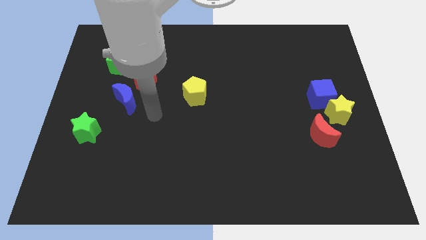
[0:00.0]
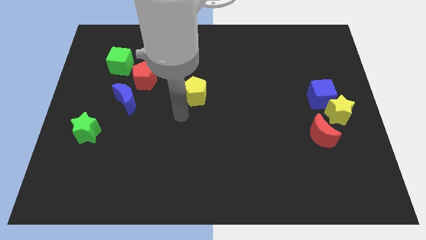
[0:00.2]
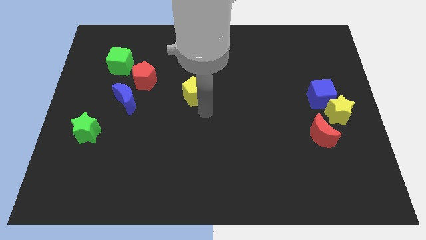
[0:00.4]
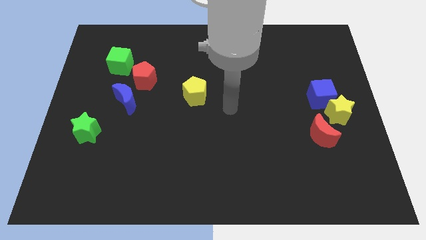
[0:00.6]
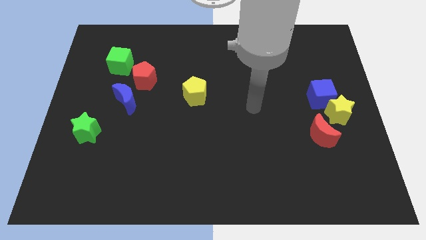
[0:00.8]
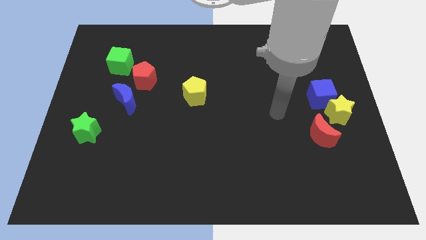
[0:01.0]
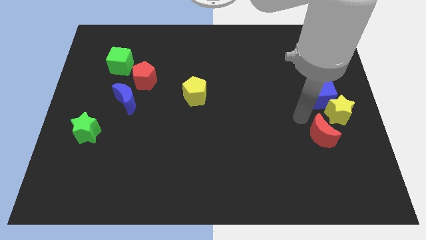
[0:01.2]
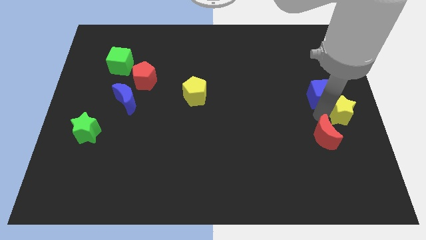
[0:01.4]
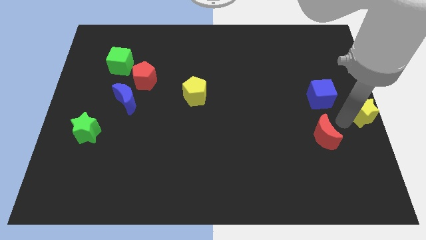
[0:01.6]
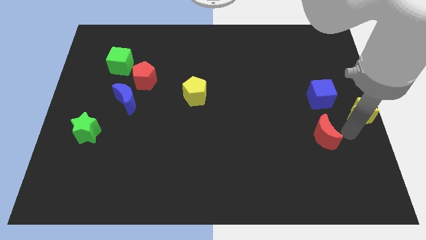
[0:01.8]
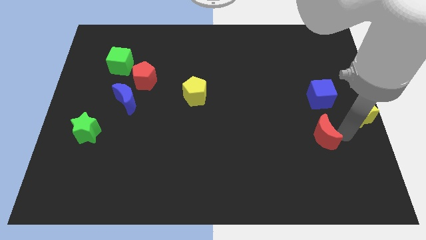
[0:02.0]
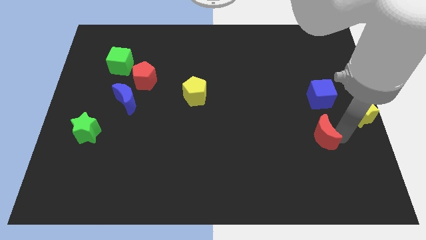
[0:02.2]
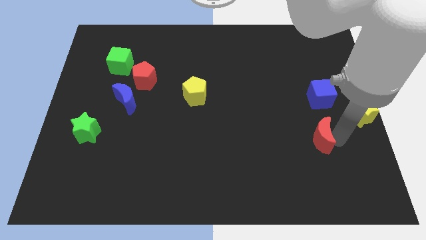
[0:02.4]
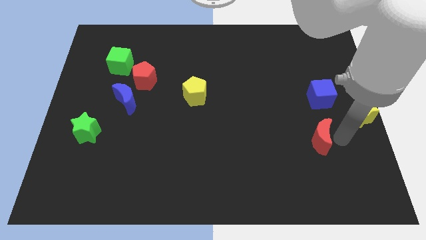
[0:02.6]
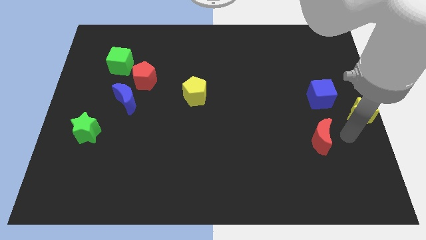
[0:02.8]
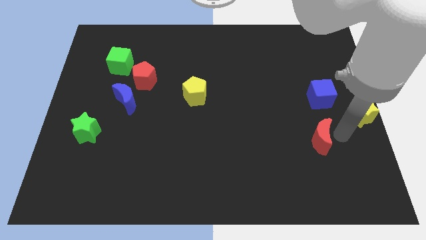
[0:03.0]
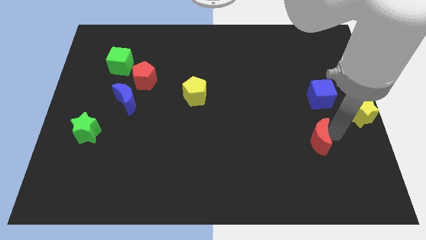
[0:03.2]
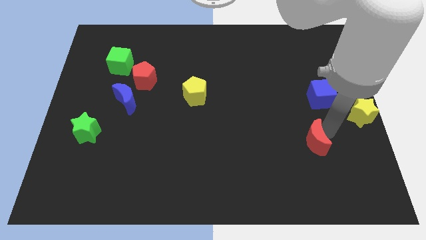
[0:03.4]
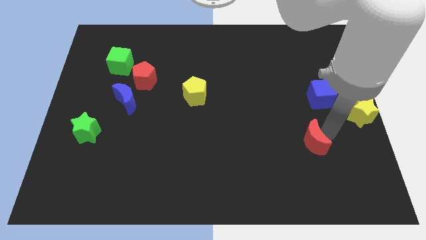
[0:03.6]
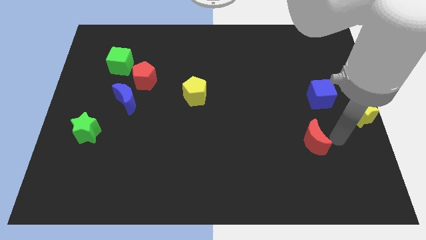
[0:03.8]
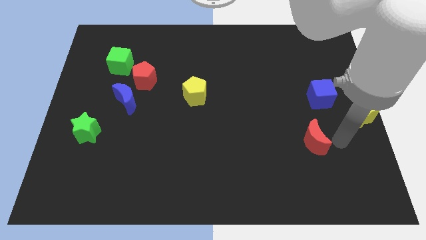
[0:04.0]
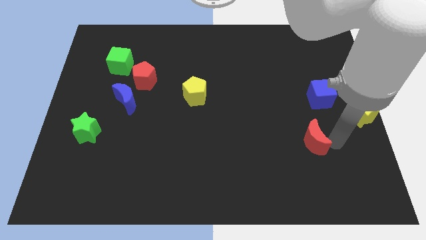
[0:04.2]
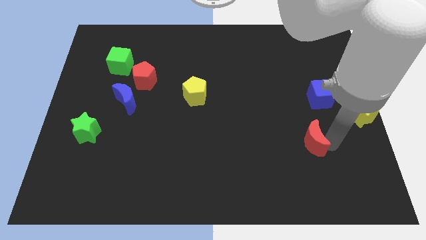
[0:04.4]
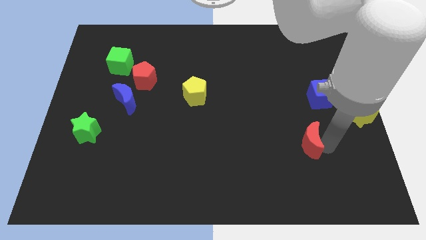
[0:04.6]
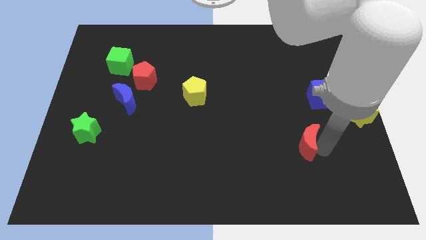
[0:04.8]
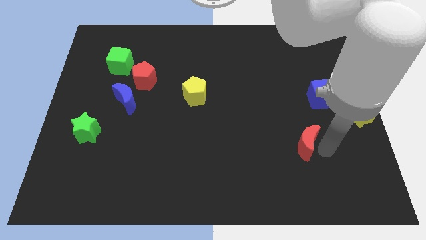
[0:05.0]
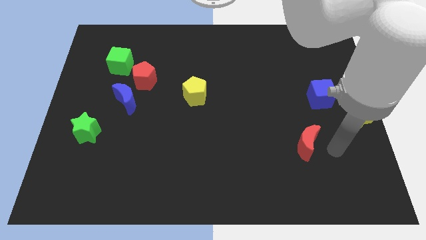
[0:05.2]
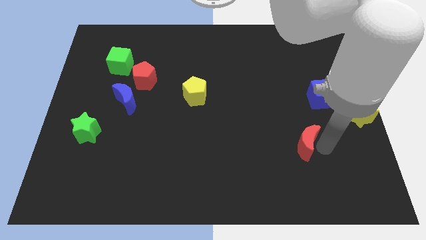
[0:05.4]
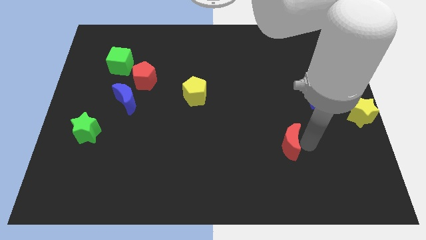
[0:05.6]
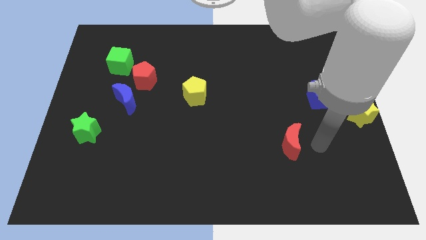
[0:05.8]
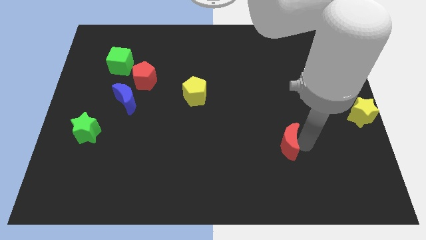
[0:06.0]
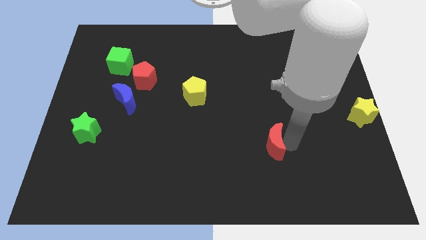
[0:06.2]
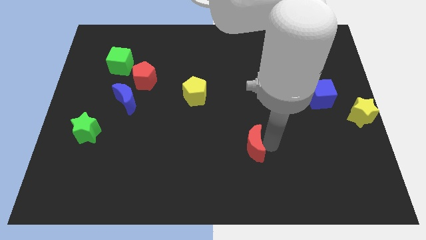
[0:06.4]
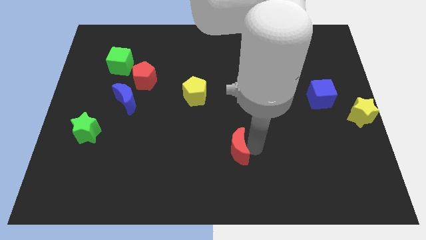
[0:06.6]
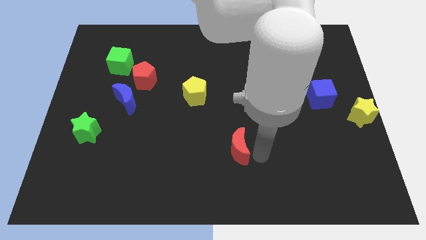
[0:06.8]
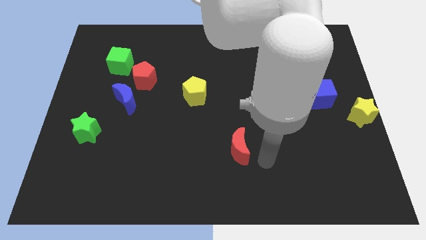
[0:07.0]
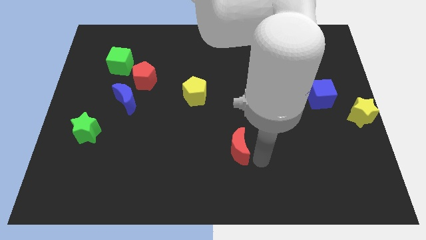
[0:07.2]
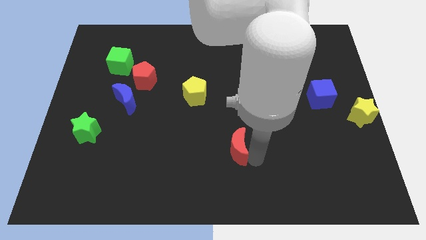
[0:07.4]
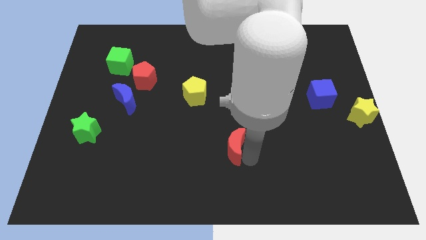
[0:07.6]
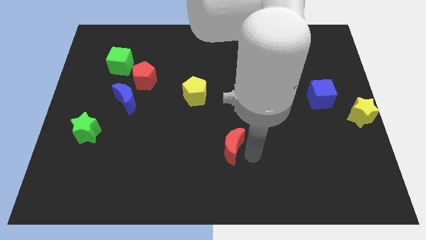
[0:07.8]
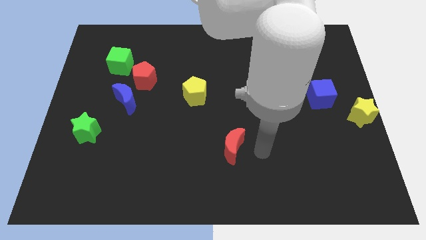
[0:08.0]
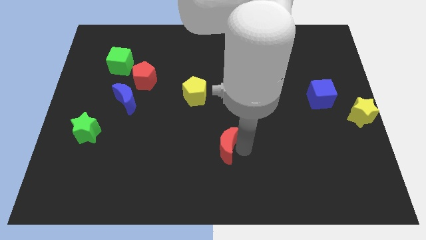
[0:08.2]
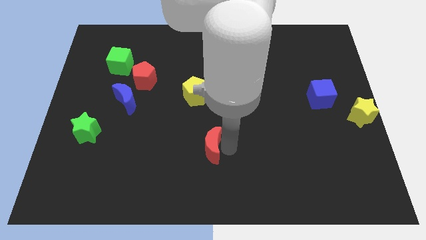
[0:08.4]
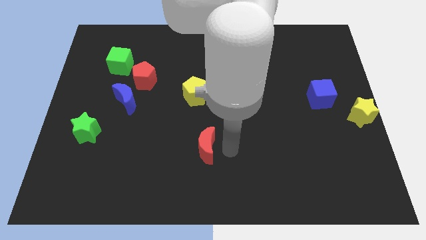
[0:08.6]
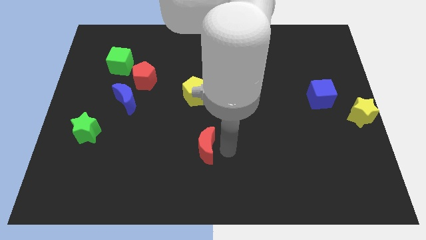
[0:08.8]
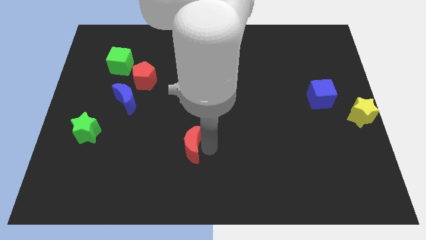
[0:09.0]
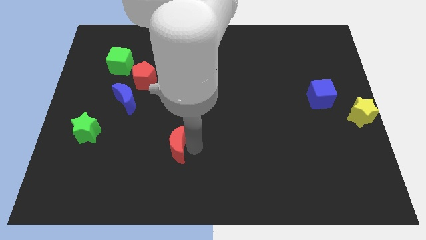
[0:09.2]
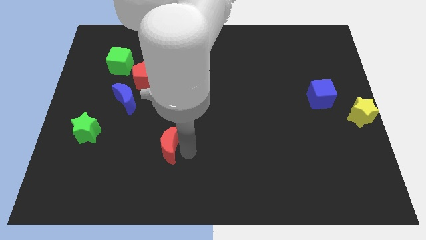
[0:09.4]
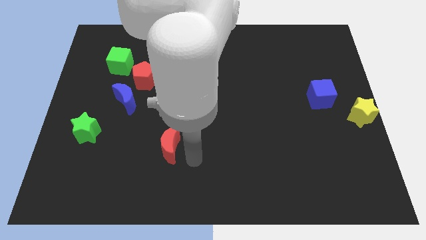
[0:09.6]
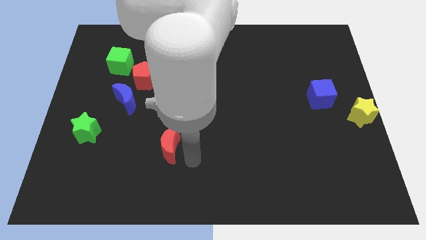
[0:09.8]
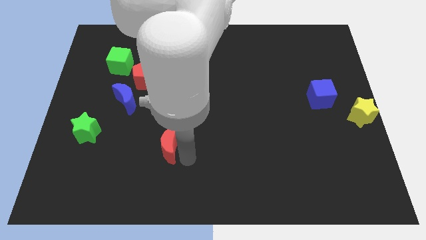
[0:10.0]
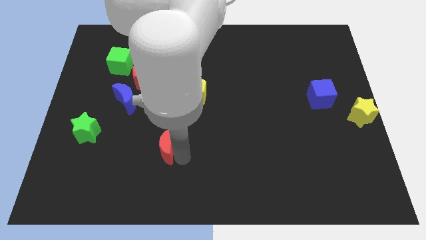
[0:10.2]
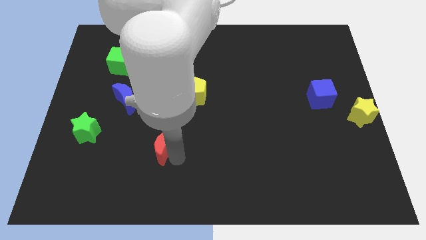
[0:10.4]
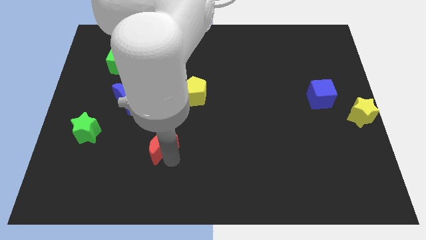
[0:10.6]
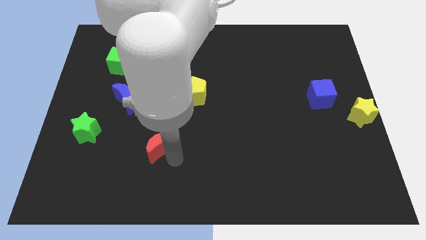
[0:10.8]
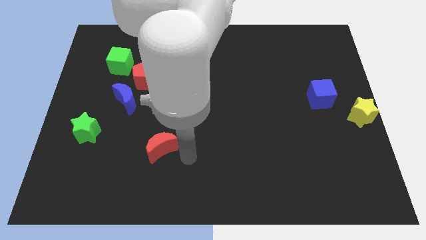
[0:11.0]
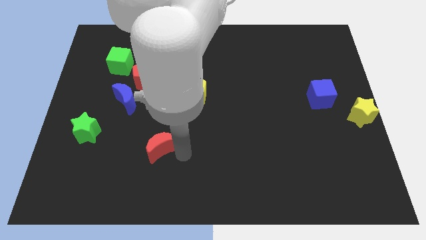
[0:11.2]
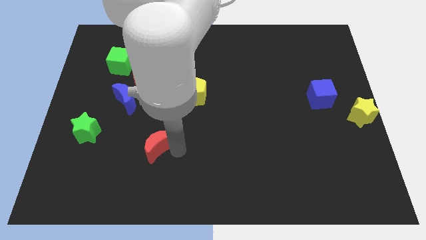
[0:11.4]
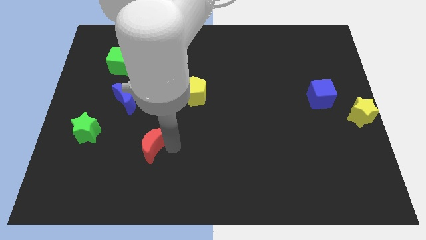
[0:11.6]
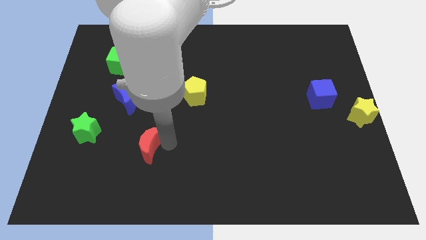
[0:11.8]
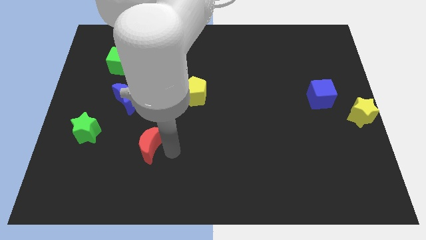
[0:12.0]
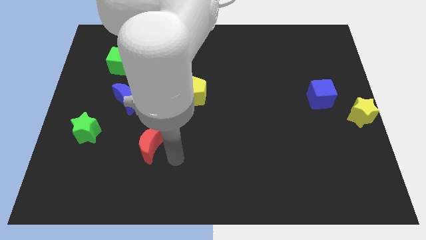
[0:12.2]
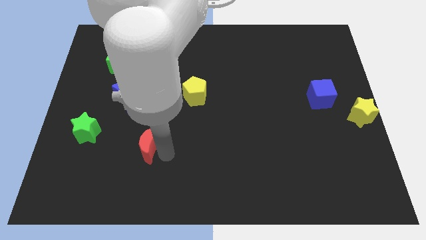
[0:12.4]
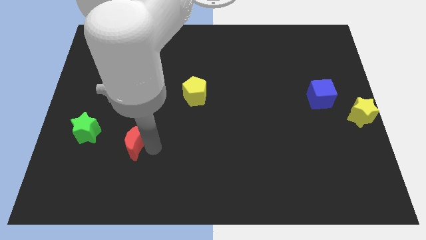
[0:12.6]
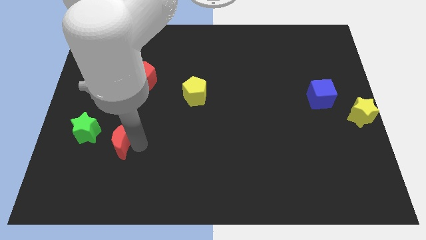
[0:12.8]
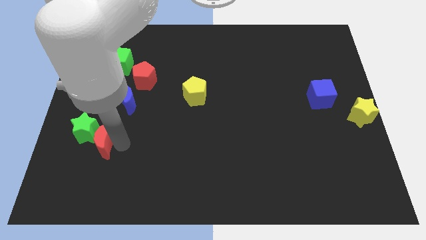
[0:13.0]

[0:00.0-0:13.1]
slide the red moon close to the green star
